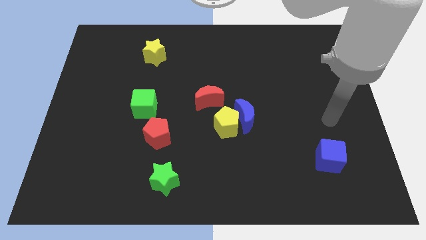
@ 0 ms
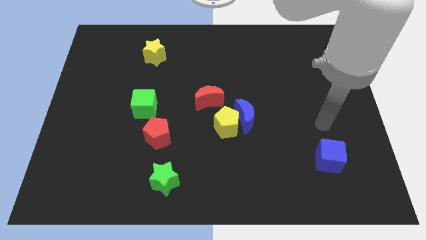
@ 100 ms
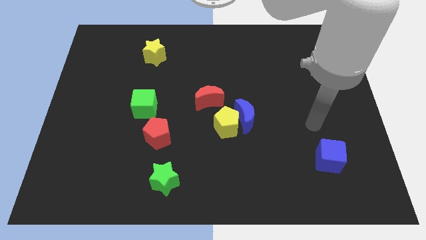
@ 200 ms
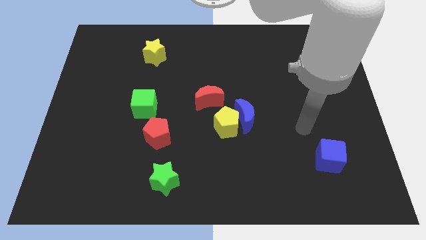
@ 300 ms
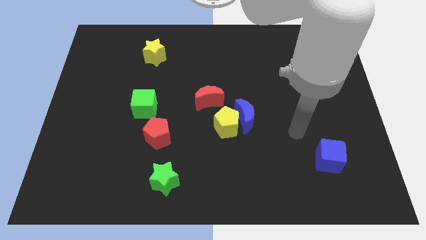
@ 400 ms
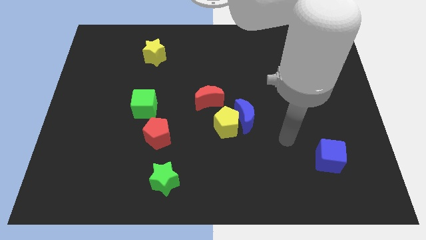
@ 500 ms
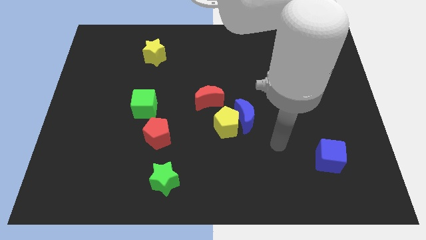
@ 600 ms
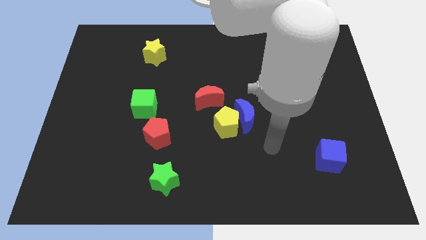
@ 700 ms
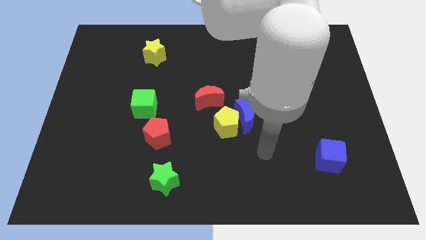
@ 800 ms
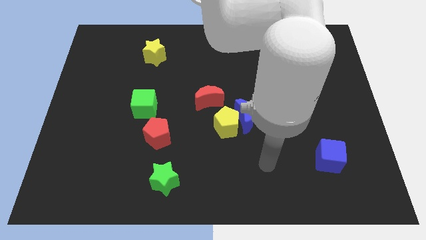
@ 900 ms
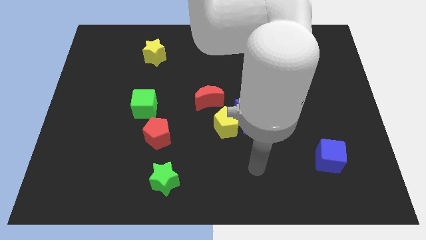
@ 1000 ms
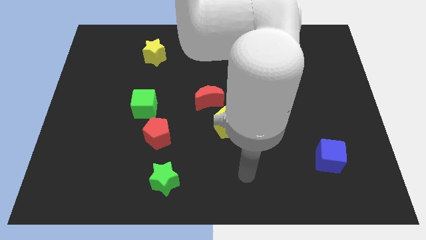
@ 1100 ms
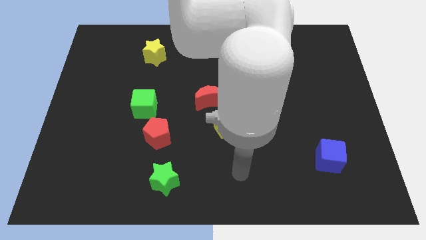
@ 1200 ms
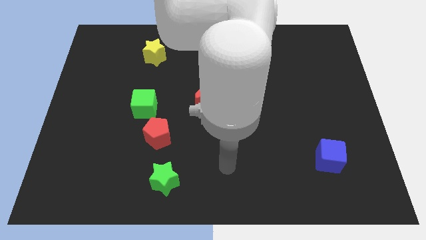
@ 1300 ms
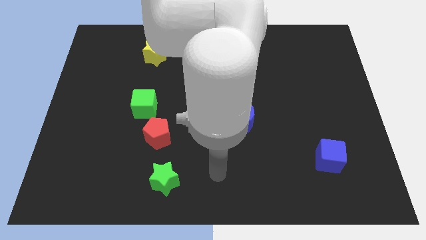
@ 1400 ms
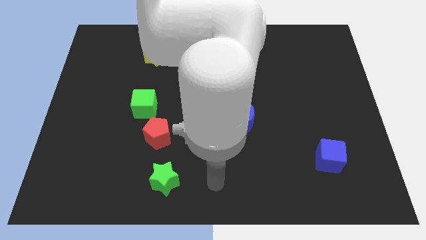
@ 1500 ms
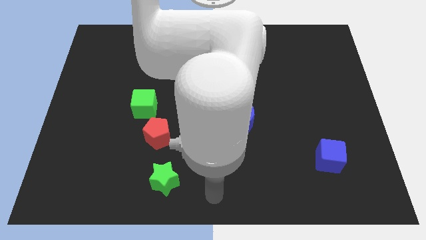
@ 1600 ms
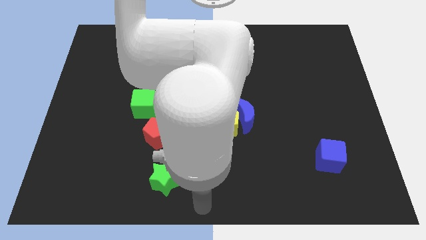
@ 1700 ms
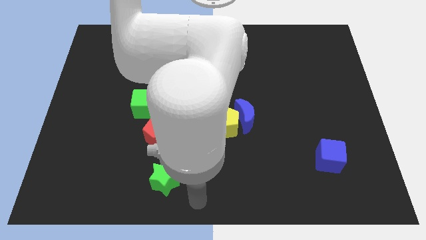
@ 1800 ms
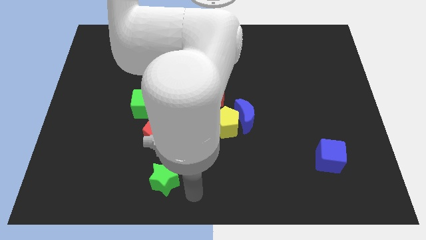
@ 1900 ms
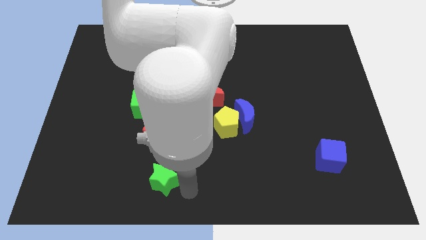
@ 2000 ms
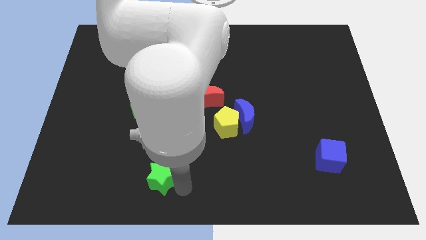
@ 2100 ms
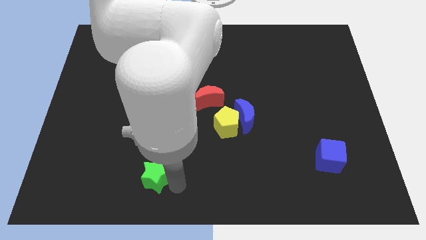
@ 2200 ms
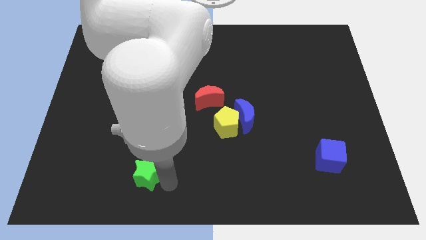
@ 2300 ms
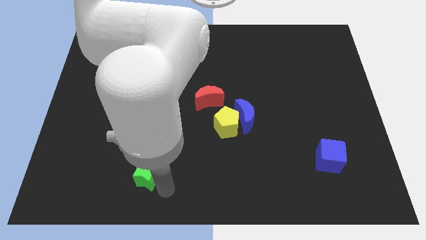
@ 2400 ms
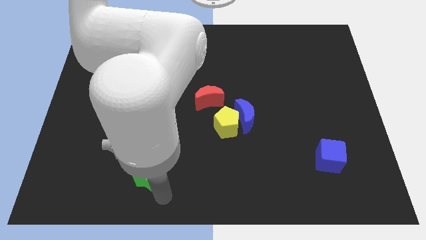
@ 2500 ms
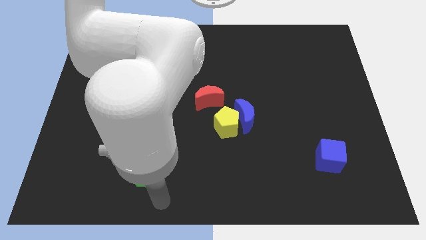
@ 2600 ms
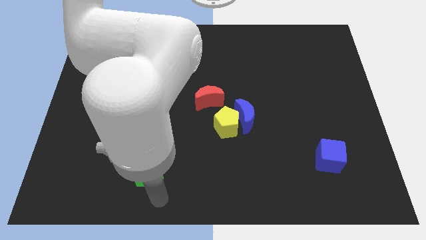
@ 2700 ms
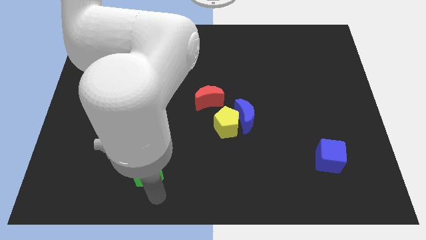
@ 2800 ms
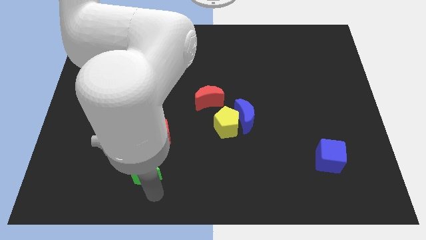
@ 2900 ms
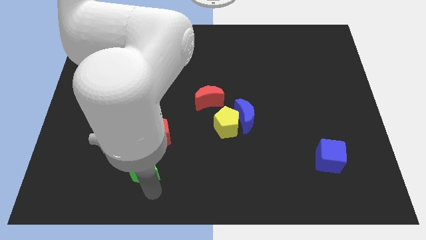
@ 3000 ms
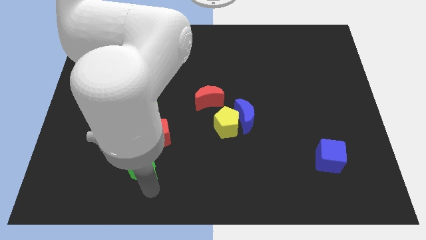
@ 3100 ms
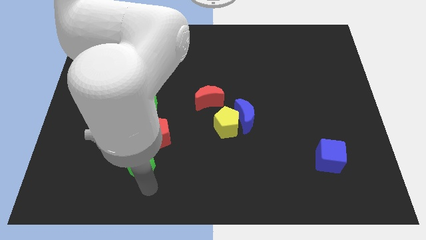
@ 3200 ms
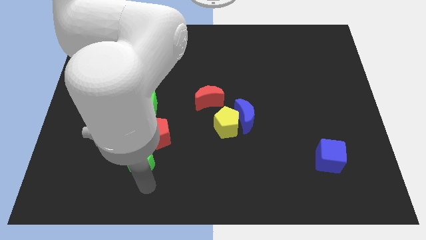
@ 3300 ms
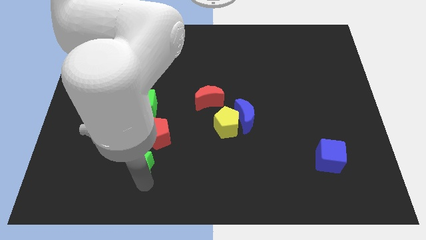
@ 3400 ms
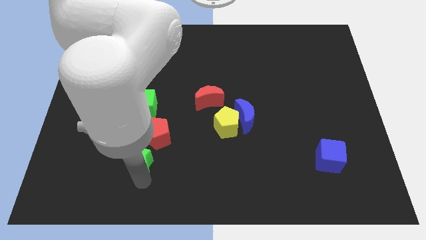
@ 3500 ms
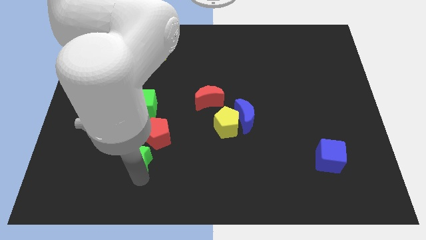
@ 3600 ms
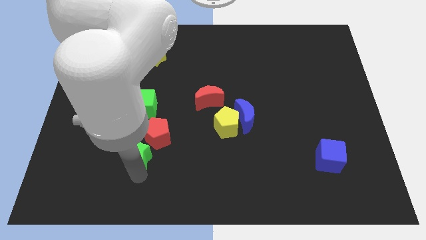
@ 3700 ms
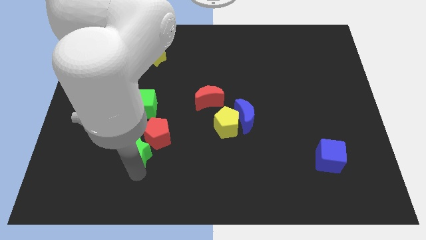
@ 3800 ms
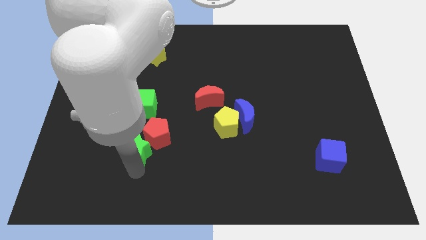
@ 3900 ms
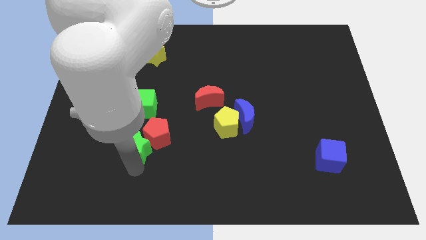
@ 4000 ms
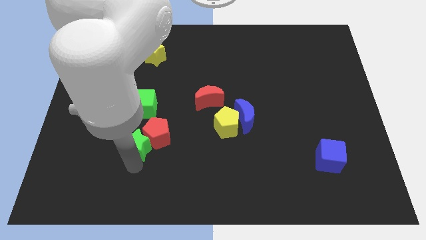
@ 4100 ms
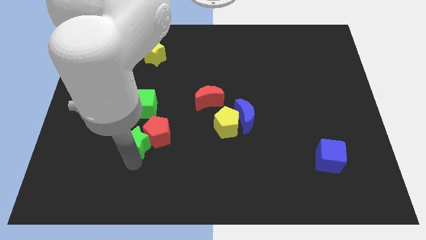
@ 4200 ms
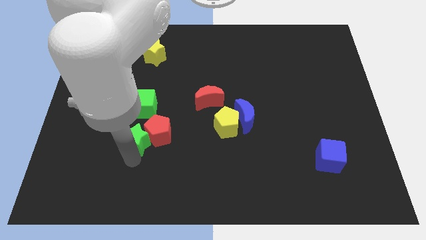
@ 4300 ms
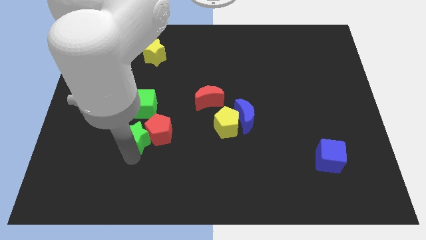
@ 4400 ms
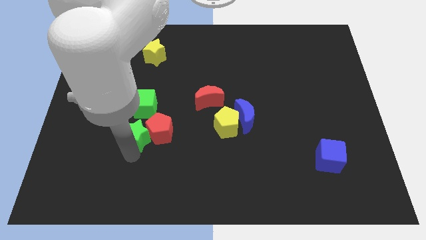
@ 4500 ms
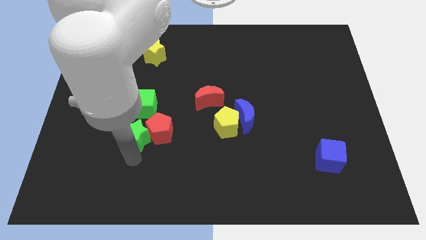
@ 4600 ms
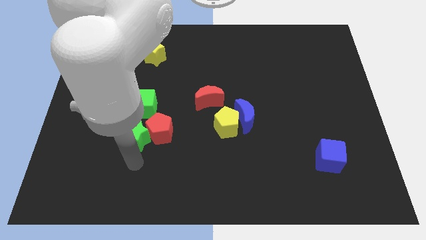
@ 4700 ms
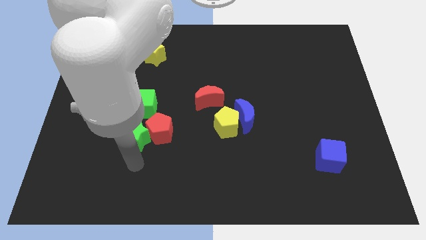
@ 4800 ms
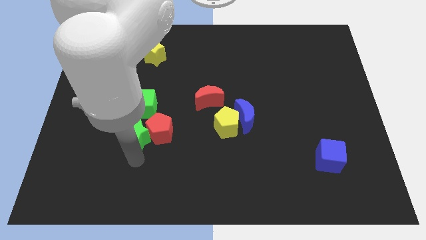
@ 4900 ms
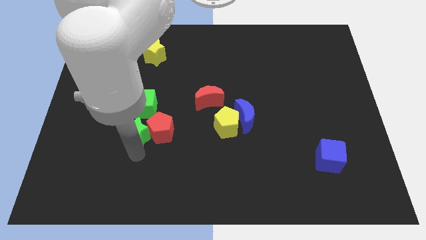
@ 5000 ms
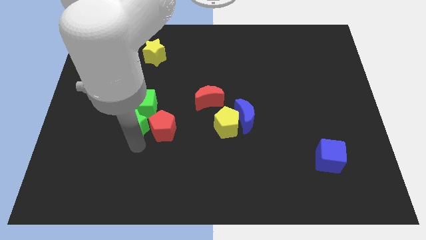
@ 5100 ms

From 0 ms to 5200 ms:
put the green star towards the green cube

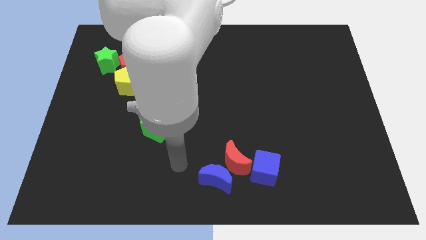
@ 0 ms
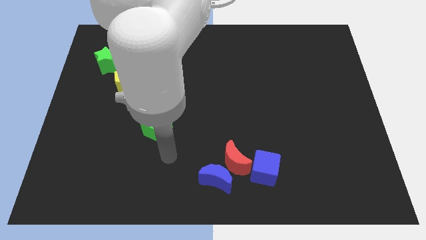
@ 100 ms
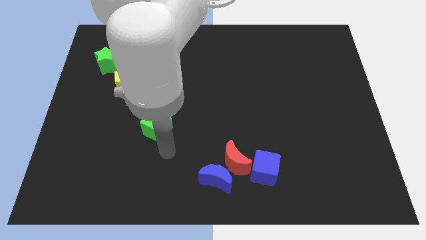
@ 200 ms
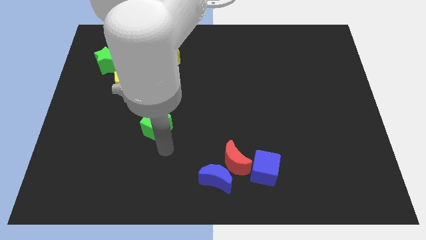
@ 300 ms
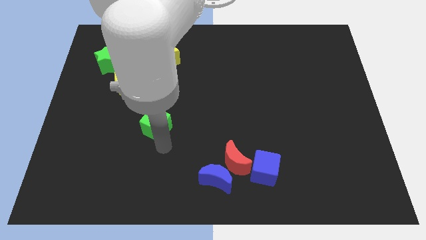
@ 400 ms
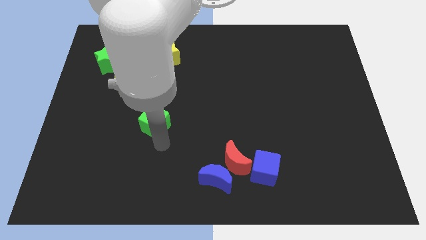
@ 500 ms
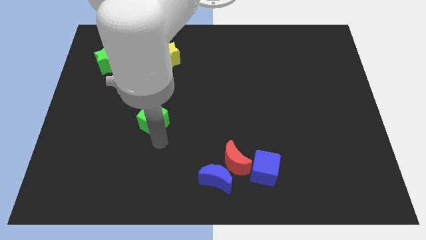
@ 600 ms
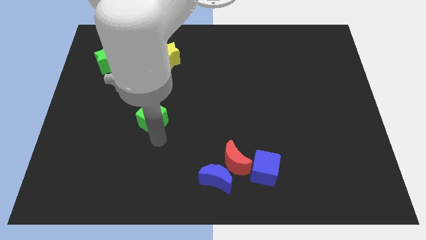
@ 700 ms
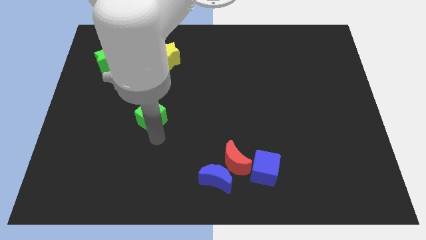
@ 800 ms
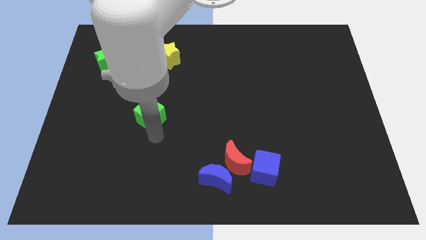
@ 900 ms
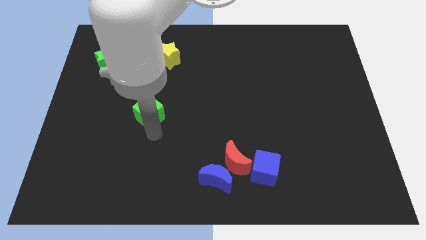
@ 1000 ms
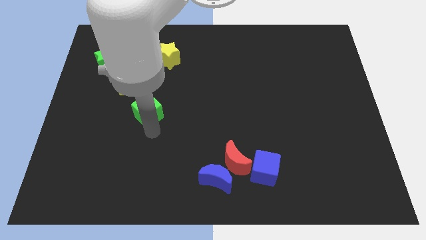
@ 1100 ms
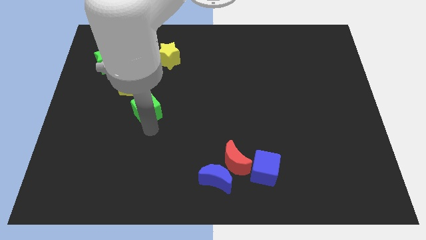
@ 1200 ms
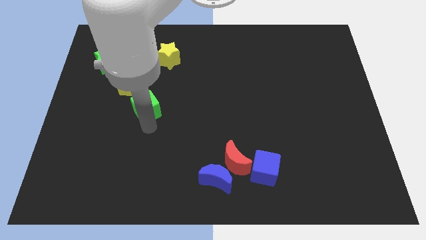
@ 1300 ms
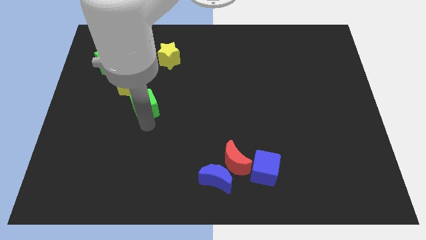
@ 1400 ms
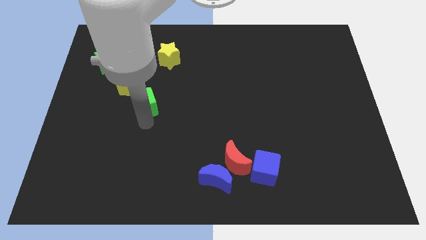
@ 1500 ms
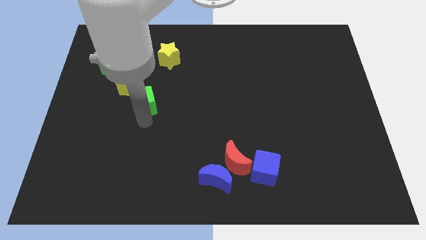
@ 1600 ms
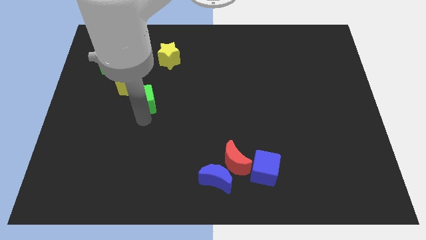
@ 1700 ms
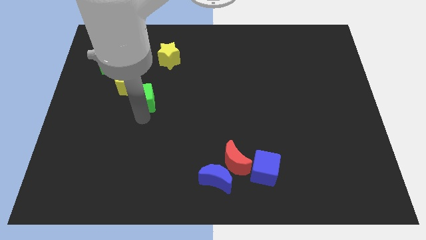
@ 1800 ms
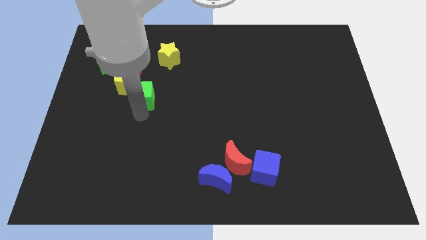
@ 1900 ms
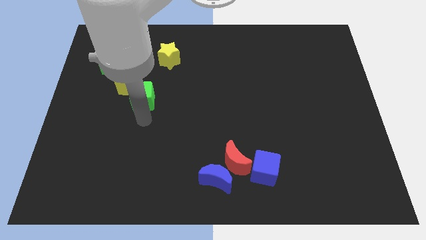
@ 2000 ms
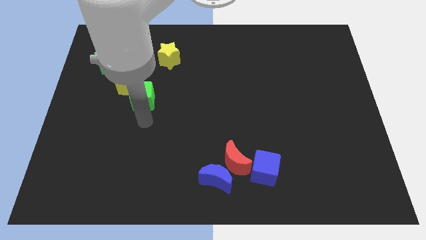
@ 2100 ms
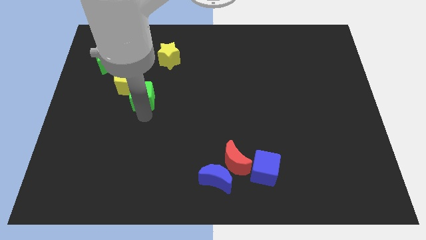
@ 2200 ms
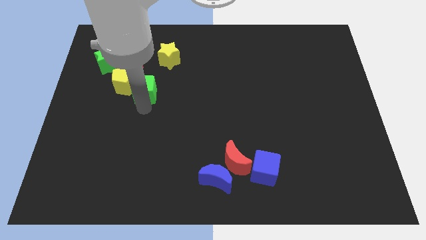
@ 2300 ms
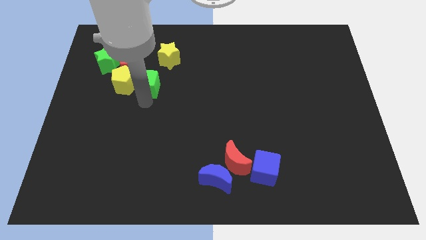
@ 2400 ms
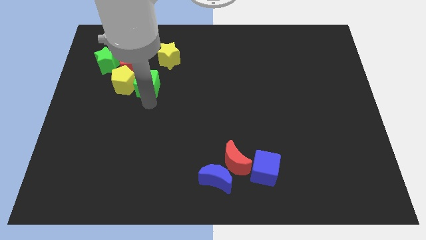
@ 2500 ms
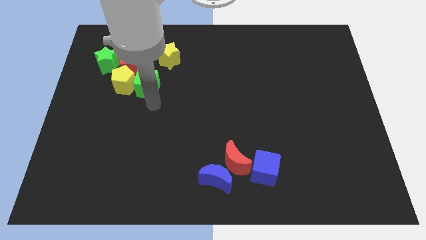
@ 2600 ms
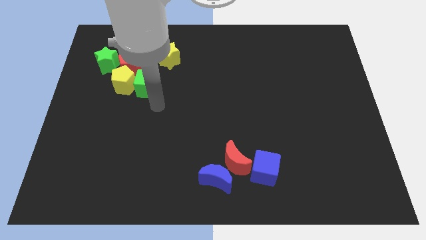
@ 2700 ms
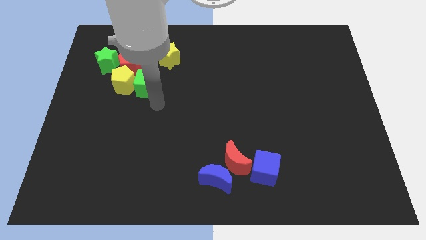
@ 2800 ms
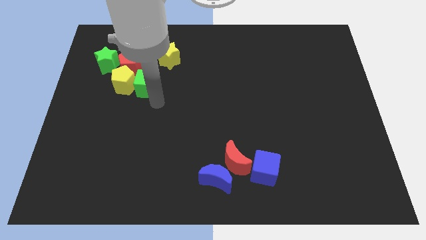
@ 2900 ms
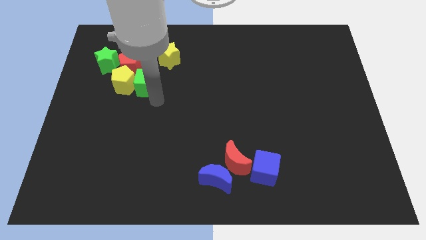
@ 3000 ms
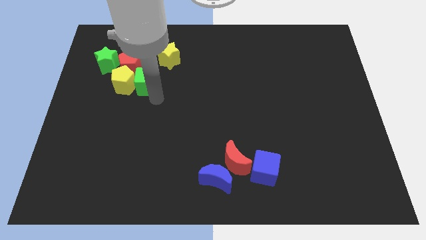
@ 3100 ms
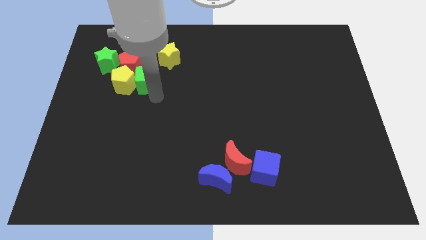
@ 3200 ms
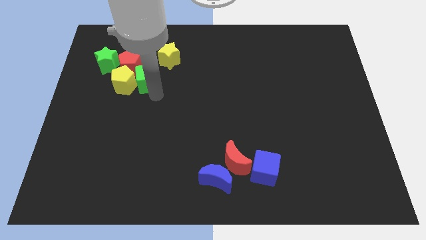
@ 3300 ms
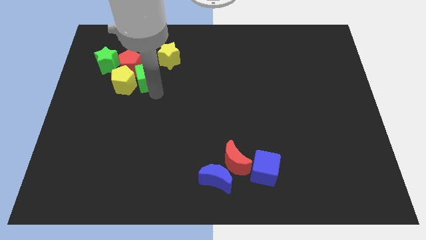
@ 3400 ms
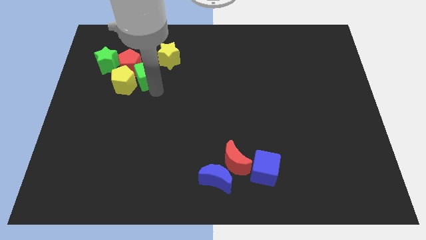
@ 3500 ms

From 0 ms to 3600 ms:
slide the green cube to the red pentagon
